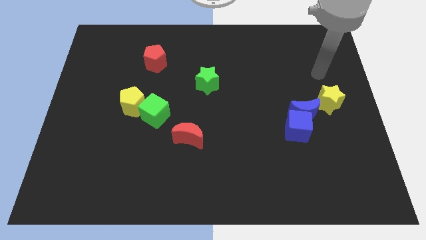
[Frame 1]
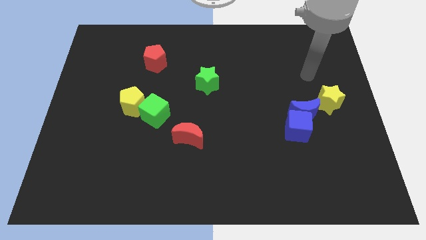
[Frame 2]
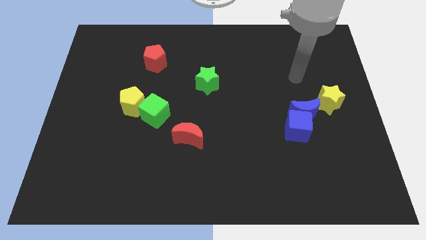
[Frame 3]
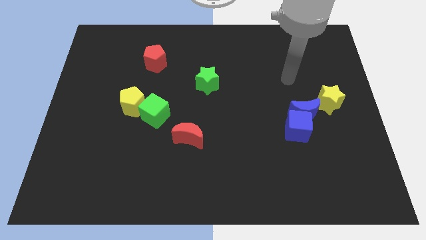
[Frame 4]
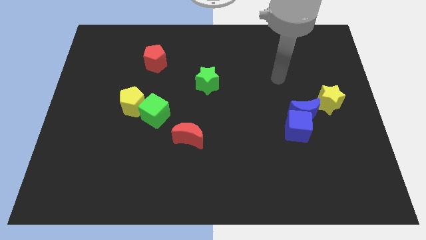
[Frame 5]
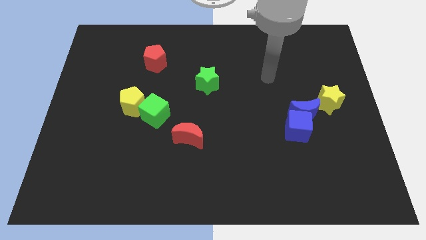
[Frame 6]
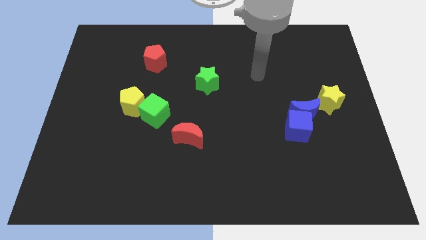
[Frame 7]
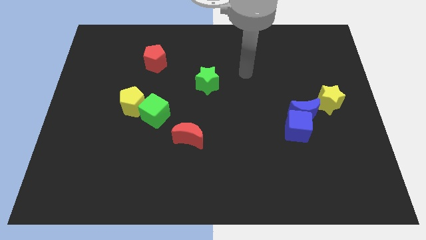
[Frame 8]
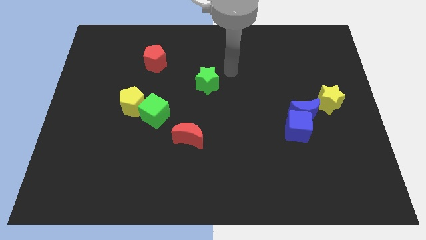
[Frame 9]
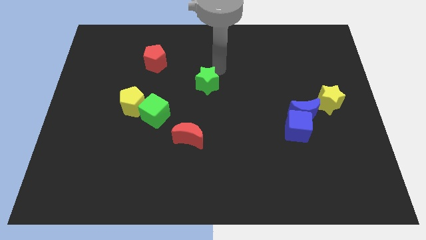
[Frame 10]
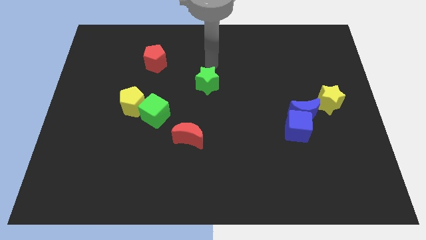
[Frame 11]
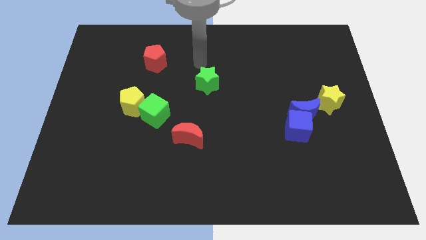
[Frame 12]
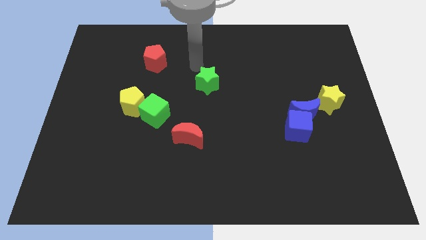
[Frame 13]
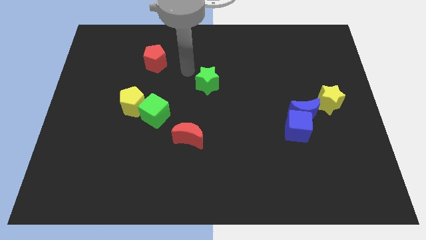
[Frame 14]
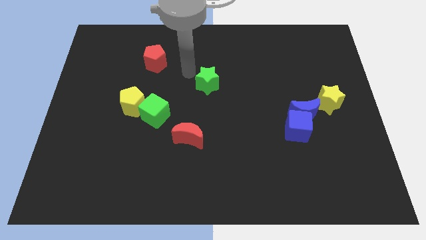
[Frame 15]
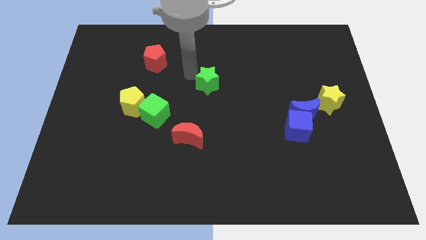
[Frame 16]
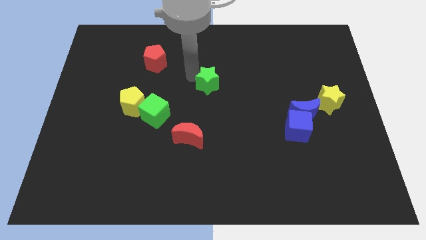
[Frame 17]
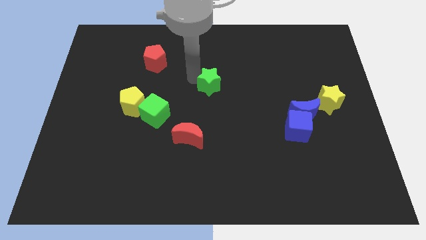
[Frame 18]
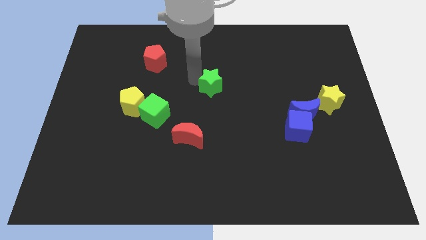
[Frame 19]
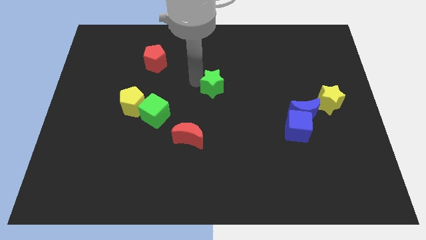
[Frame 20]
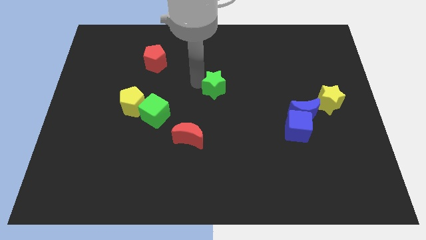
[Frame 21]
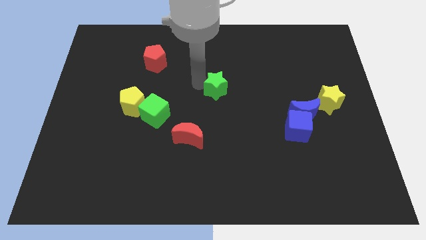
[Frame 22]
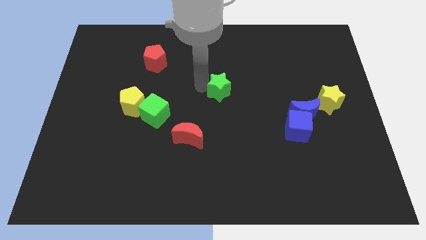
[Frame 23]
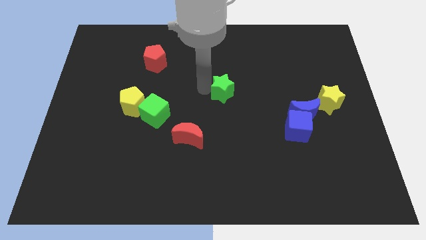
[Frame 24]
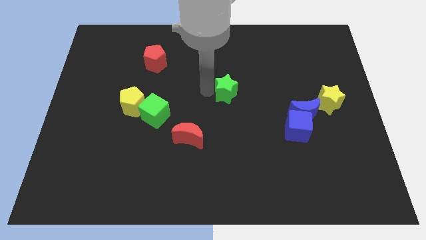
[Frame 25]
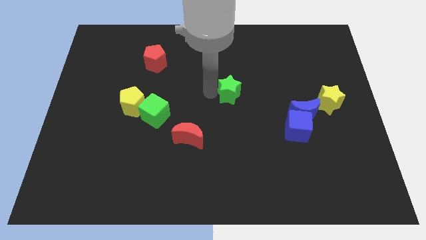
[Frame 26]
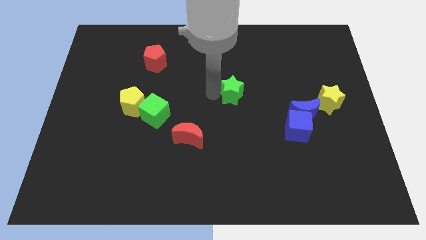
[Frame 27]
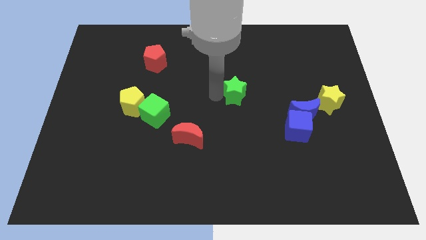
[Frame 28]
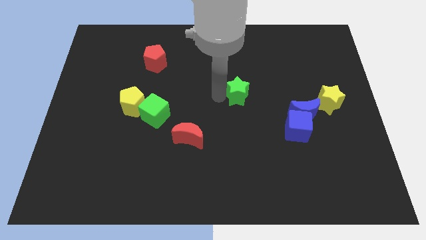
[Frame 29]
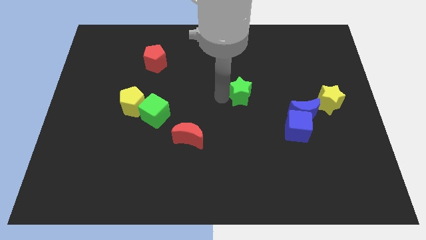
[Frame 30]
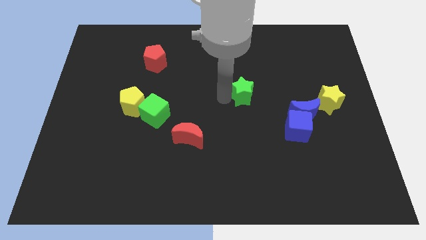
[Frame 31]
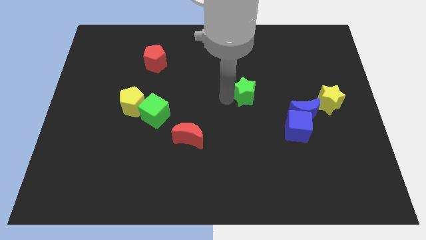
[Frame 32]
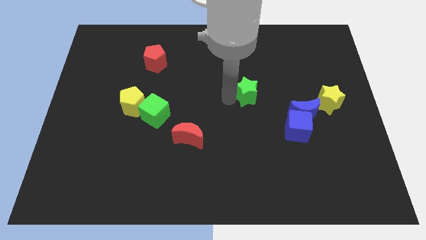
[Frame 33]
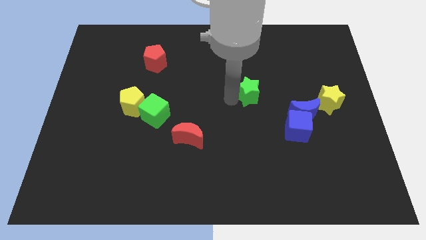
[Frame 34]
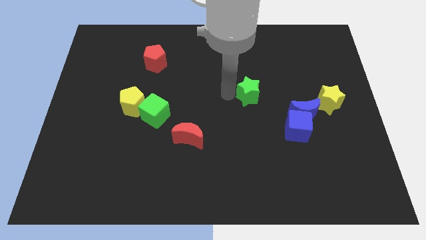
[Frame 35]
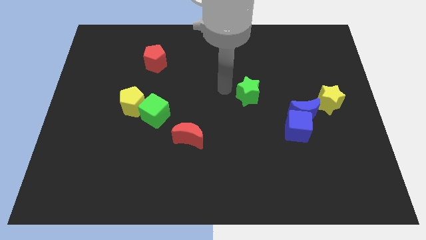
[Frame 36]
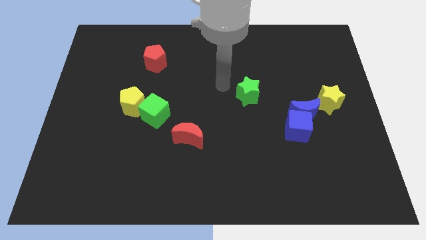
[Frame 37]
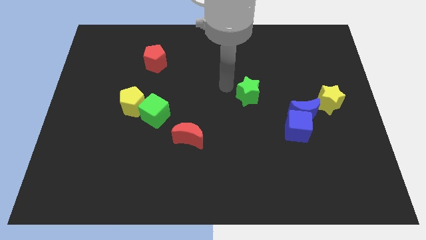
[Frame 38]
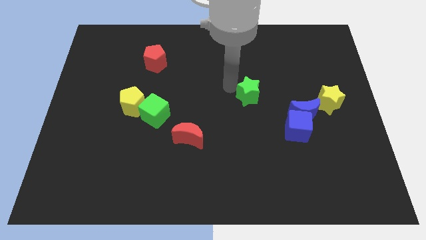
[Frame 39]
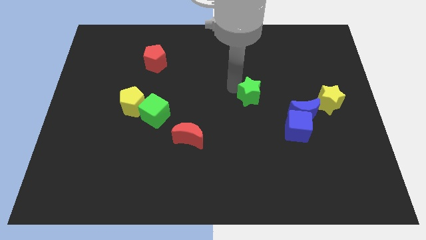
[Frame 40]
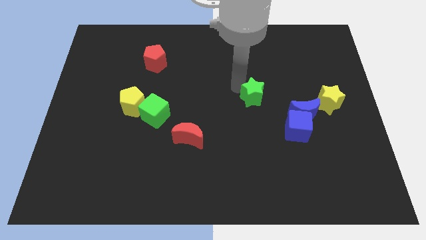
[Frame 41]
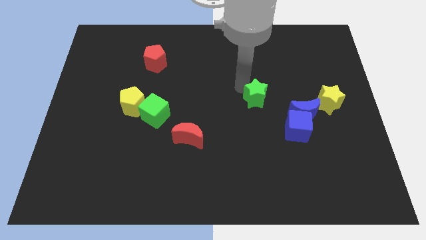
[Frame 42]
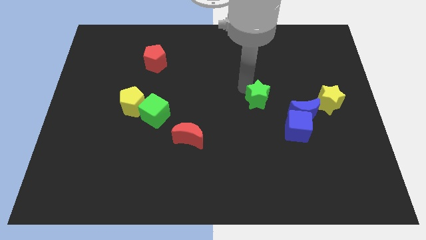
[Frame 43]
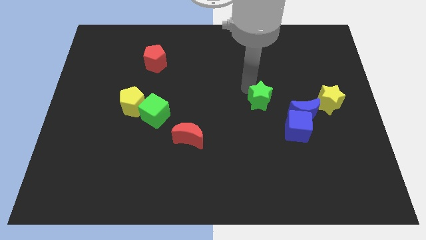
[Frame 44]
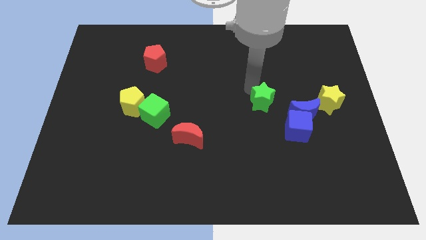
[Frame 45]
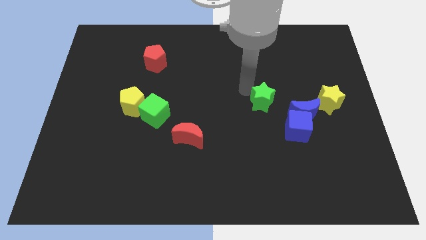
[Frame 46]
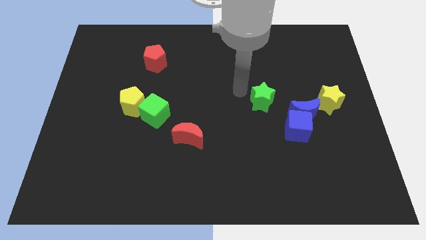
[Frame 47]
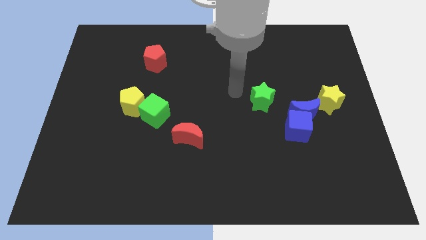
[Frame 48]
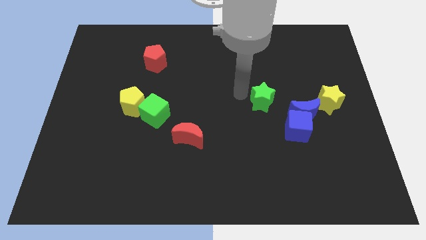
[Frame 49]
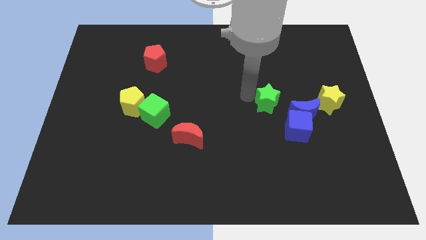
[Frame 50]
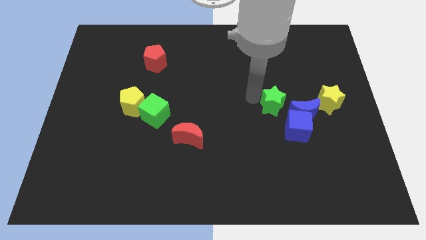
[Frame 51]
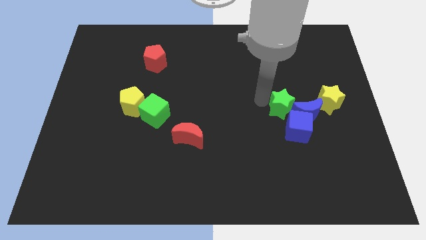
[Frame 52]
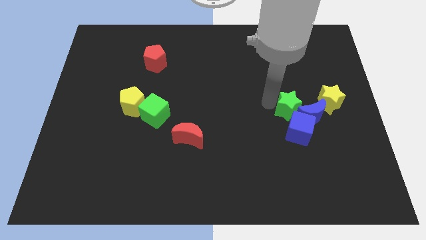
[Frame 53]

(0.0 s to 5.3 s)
slide the green star towards the blue moon

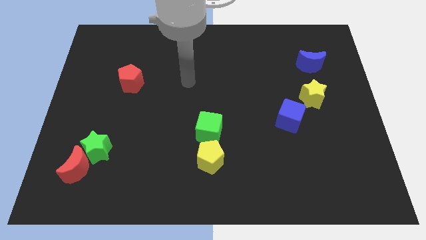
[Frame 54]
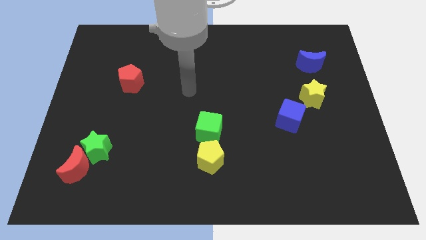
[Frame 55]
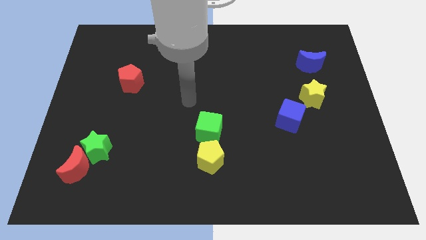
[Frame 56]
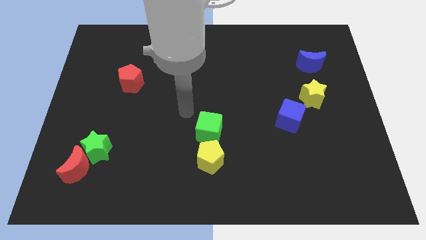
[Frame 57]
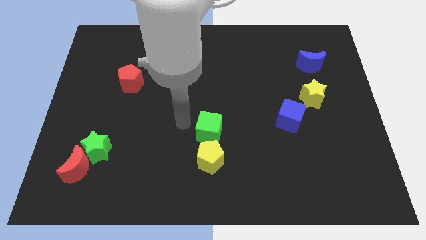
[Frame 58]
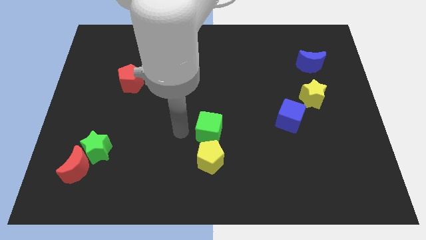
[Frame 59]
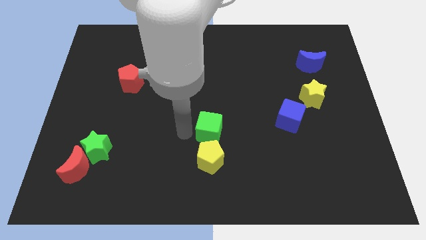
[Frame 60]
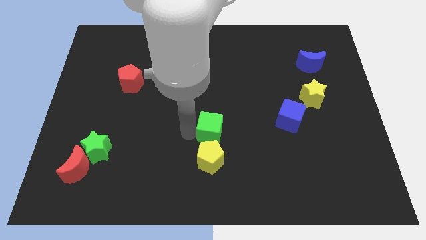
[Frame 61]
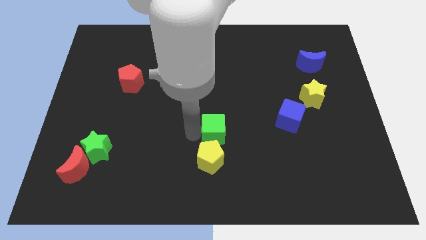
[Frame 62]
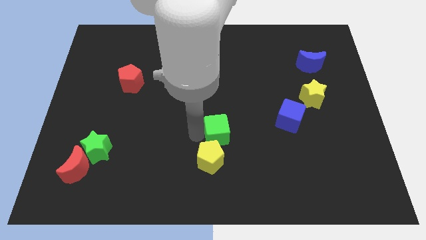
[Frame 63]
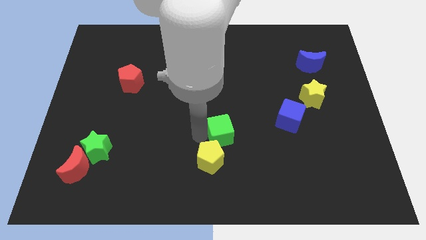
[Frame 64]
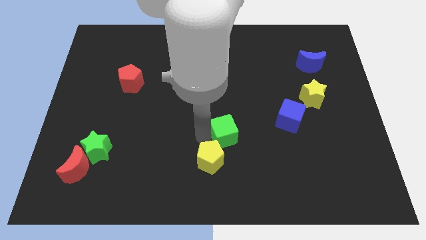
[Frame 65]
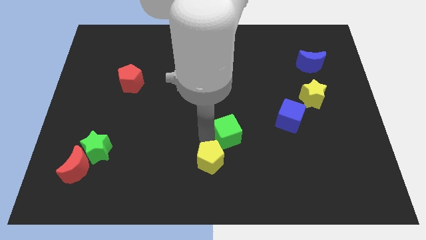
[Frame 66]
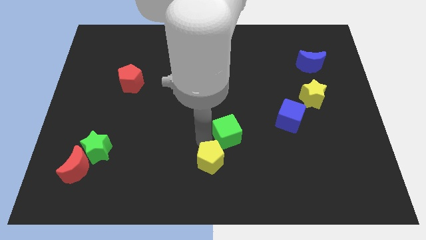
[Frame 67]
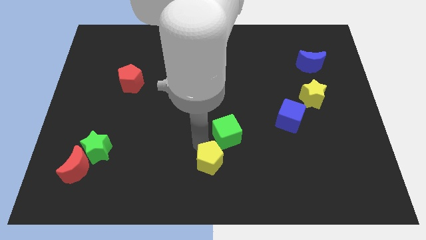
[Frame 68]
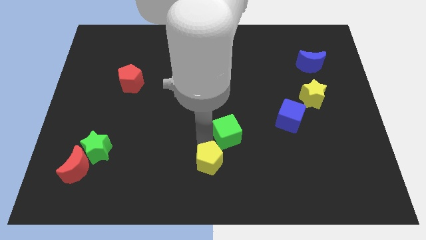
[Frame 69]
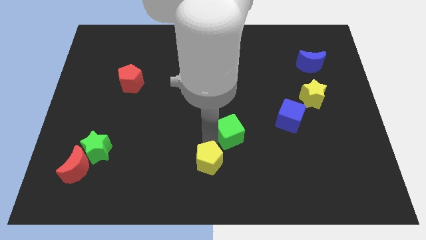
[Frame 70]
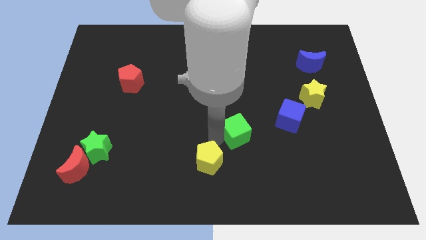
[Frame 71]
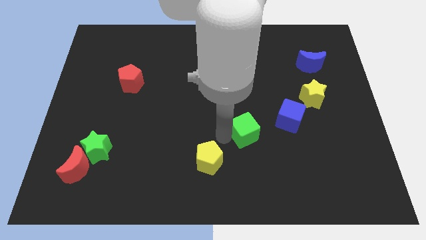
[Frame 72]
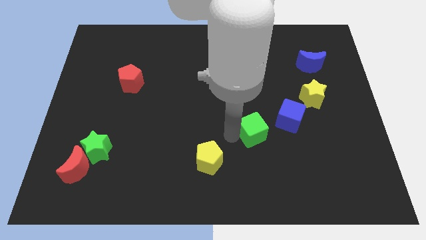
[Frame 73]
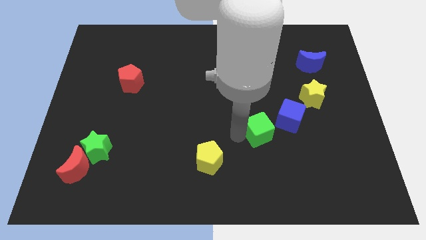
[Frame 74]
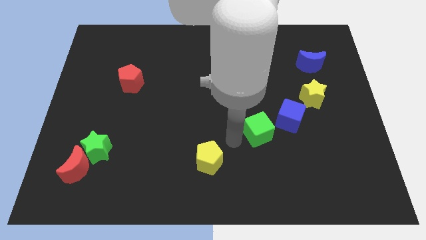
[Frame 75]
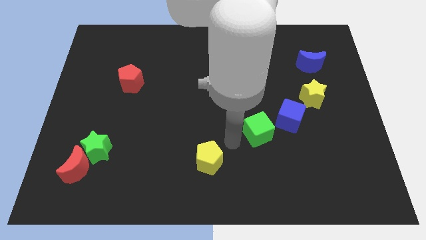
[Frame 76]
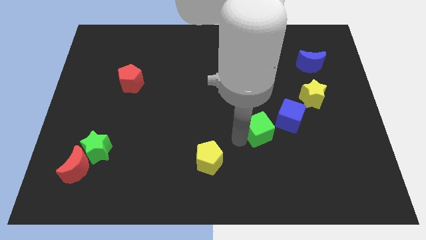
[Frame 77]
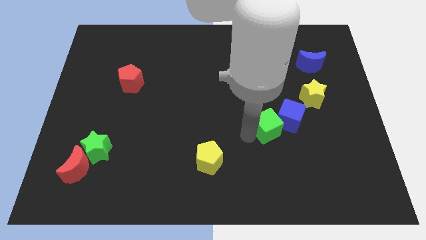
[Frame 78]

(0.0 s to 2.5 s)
put the green cube towards the blue cube
